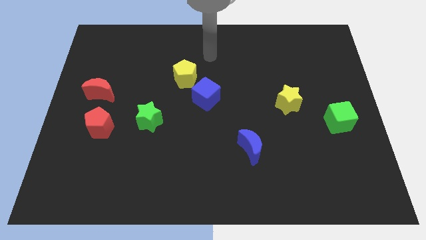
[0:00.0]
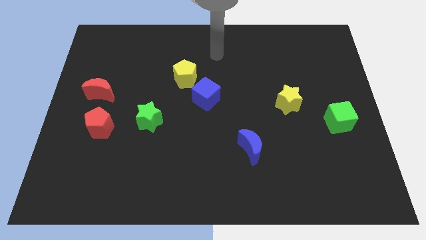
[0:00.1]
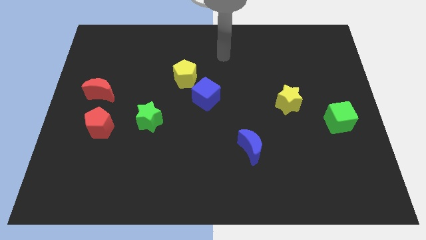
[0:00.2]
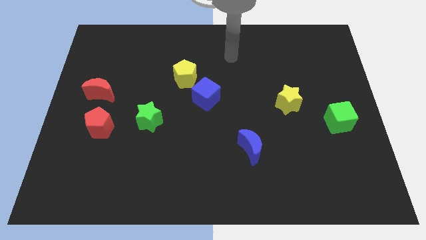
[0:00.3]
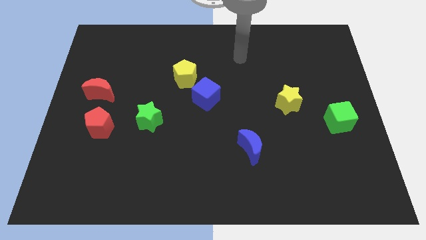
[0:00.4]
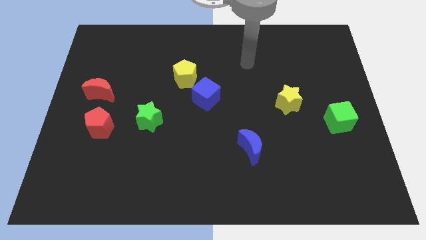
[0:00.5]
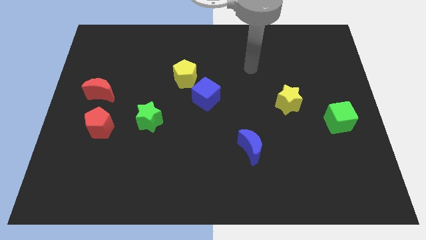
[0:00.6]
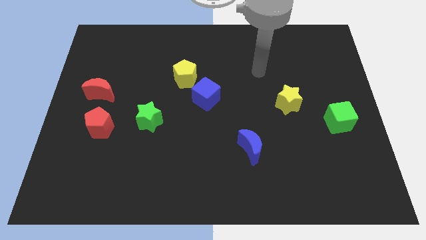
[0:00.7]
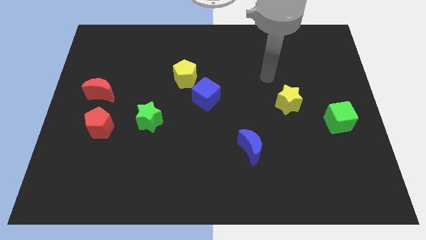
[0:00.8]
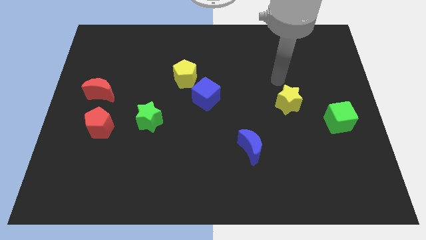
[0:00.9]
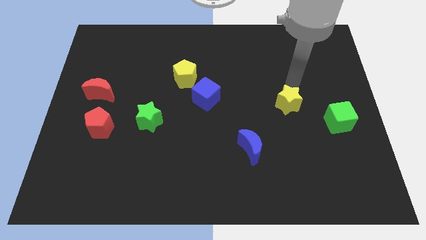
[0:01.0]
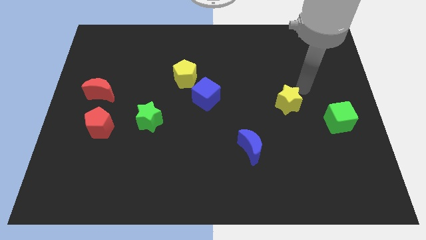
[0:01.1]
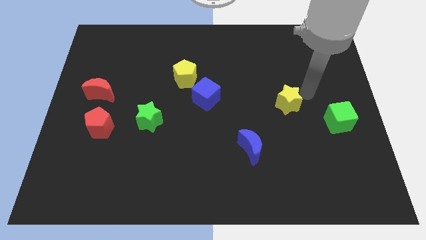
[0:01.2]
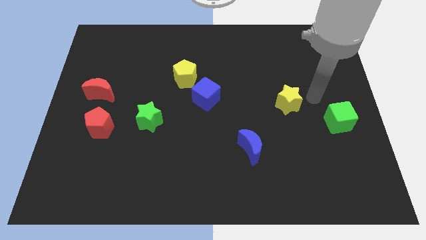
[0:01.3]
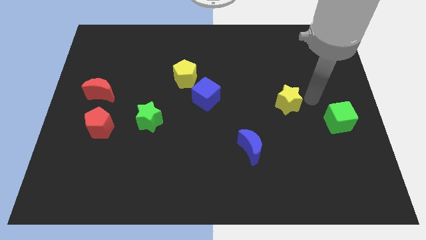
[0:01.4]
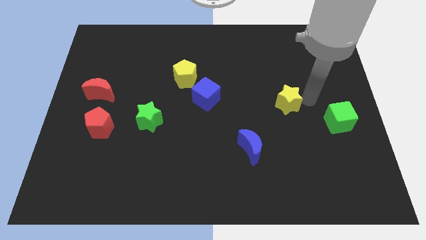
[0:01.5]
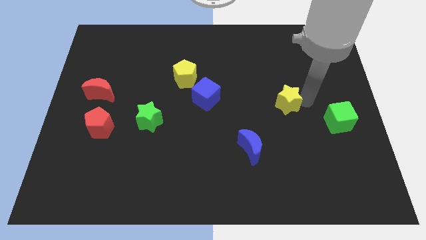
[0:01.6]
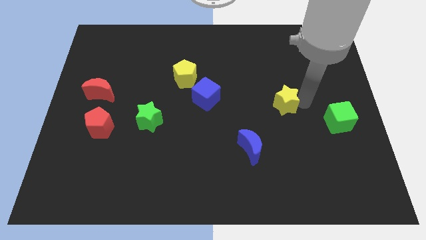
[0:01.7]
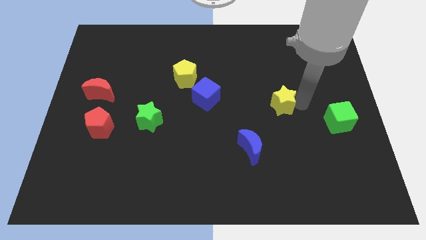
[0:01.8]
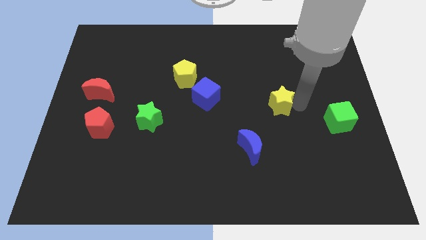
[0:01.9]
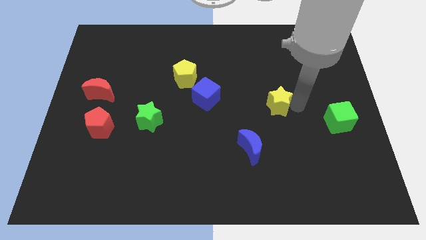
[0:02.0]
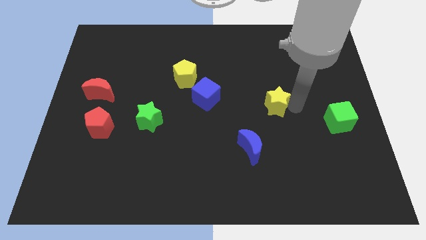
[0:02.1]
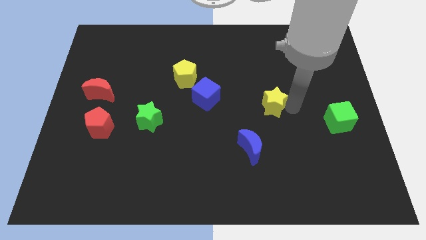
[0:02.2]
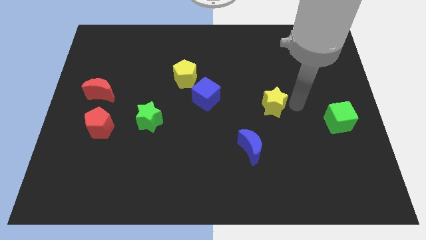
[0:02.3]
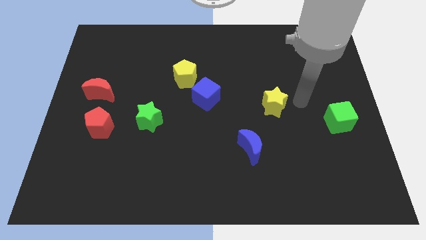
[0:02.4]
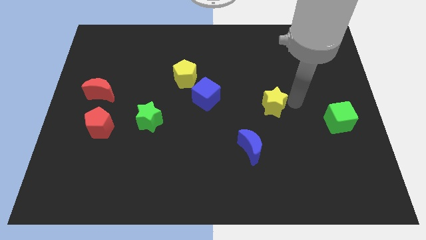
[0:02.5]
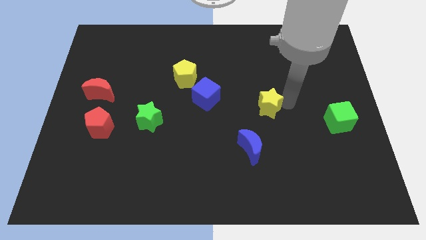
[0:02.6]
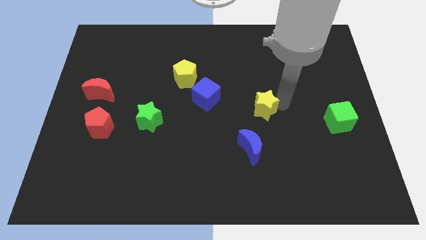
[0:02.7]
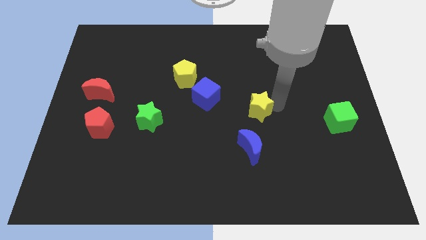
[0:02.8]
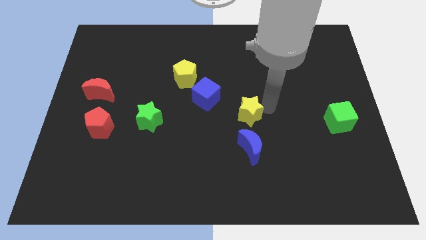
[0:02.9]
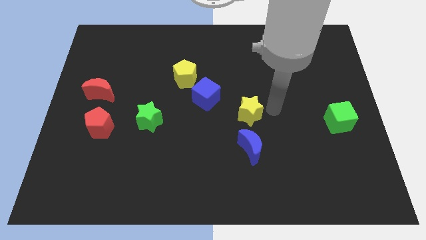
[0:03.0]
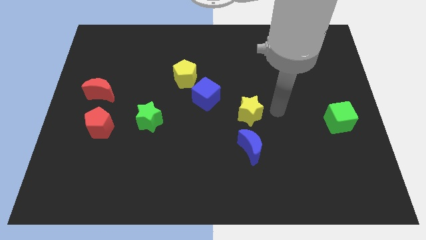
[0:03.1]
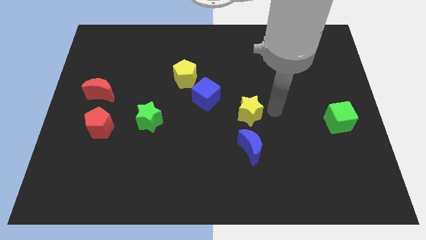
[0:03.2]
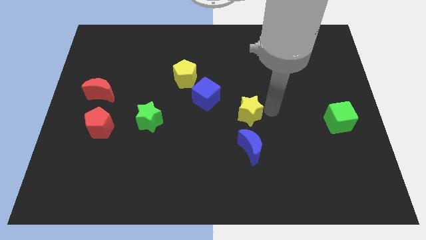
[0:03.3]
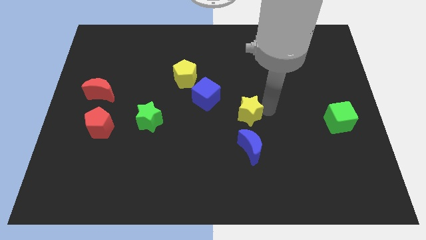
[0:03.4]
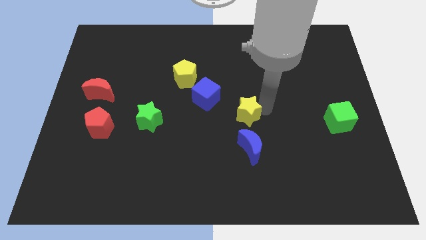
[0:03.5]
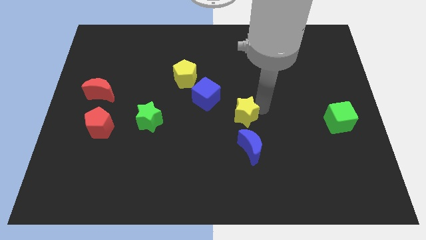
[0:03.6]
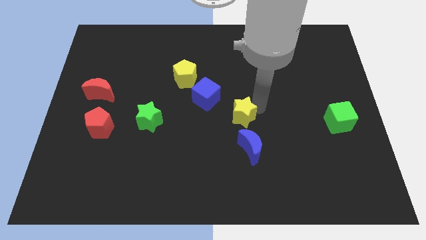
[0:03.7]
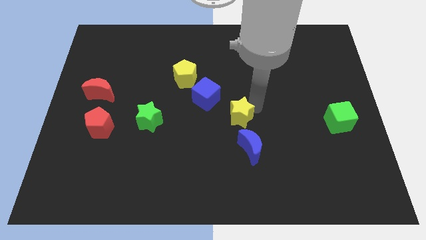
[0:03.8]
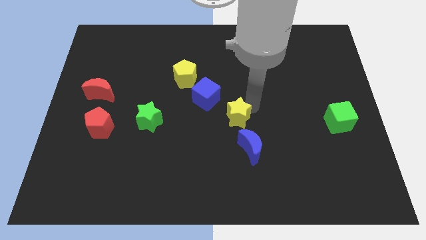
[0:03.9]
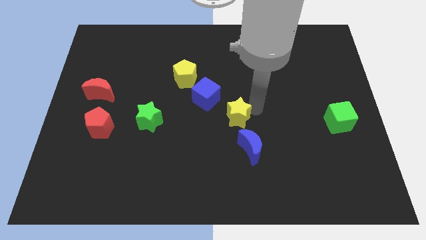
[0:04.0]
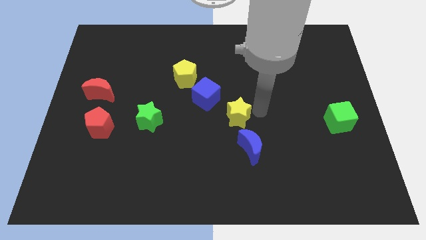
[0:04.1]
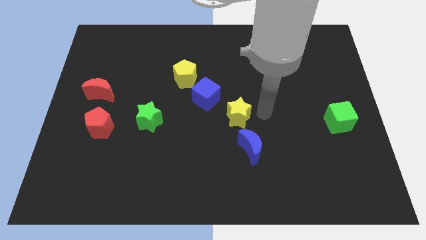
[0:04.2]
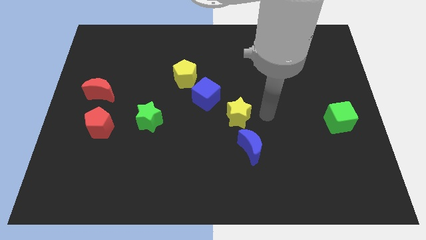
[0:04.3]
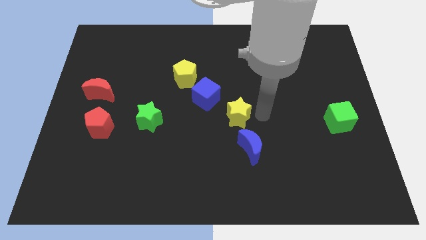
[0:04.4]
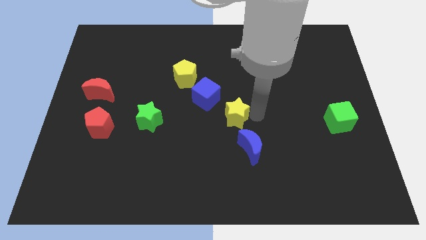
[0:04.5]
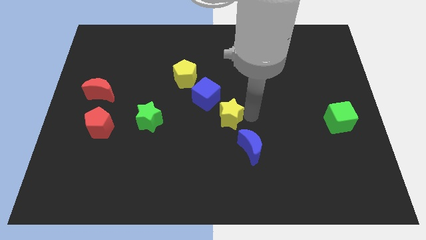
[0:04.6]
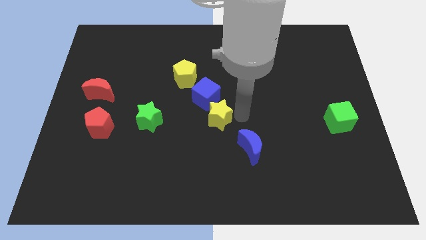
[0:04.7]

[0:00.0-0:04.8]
slide the yellow star right of the green star

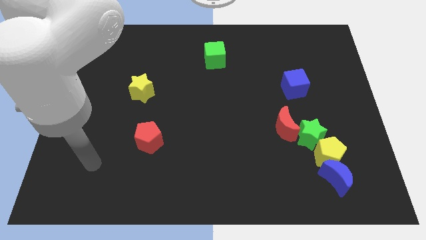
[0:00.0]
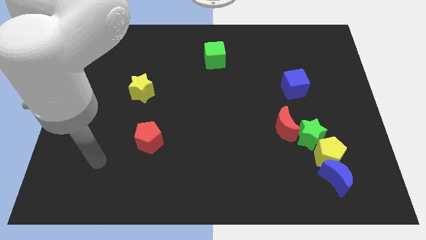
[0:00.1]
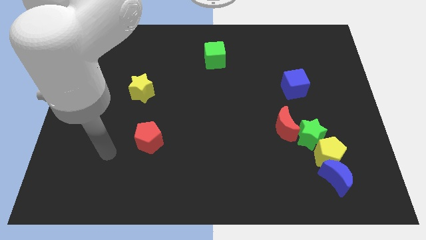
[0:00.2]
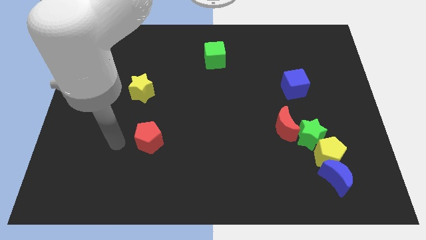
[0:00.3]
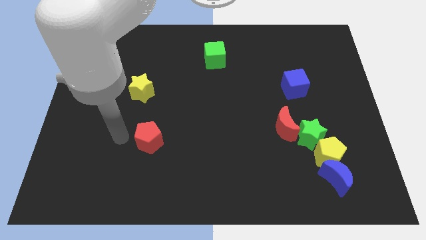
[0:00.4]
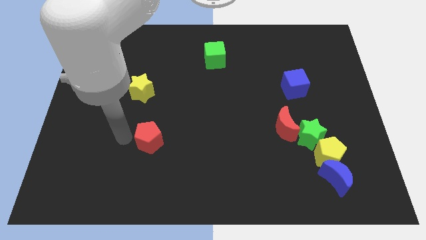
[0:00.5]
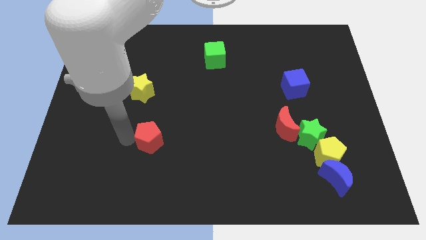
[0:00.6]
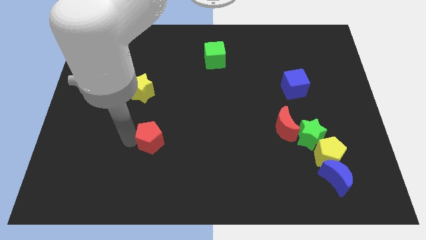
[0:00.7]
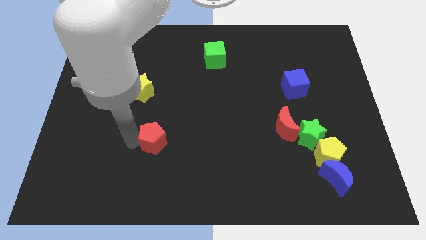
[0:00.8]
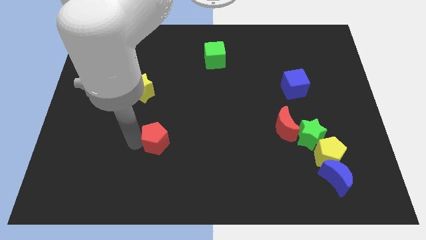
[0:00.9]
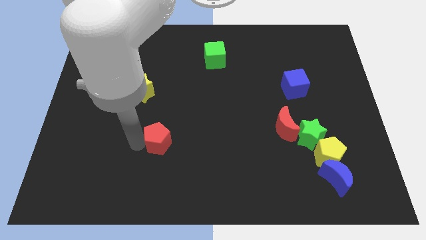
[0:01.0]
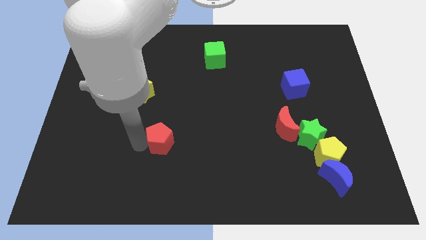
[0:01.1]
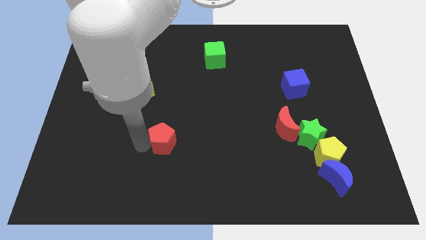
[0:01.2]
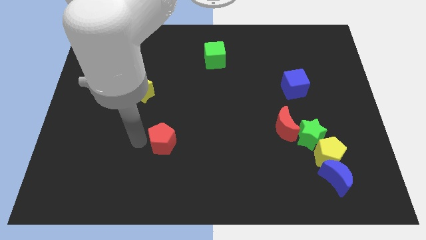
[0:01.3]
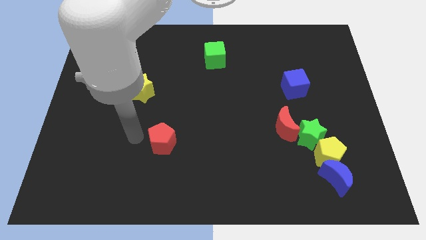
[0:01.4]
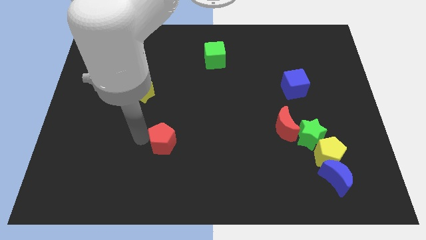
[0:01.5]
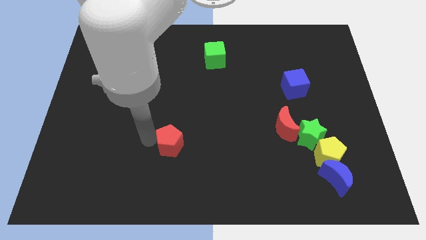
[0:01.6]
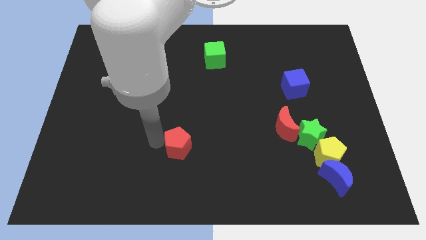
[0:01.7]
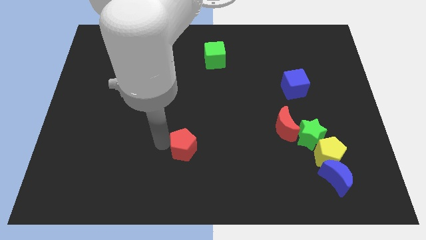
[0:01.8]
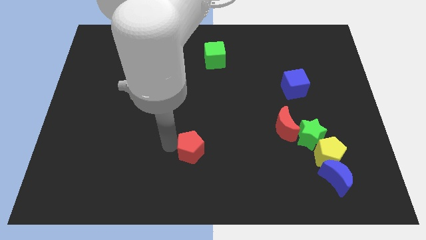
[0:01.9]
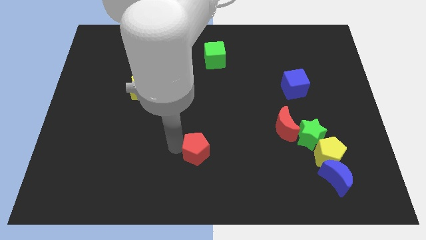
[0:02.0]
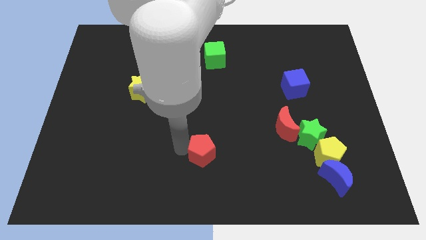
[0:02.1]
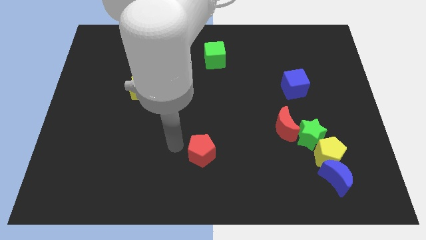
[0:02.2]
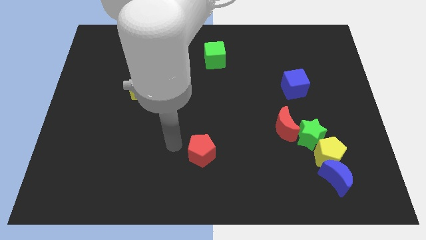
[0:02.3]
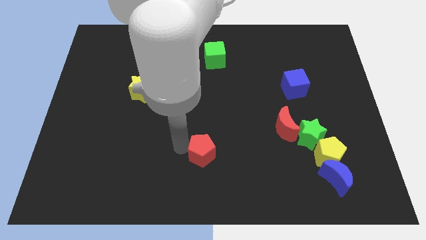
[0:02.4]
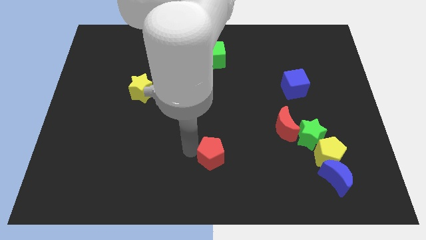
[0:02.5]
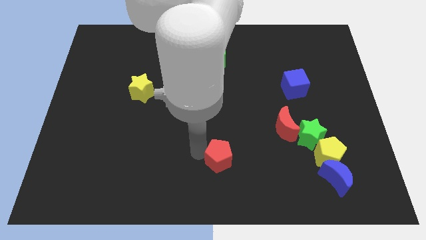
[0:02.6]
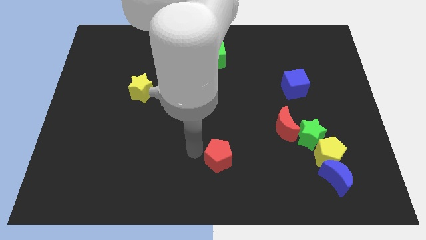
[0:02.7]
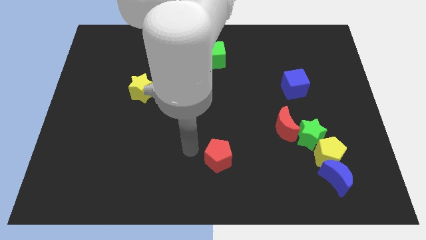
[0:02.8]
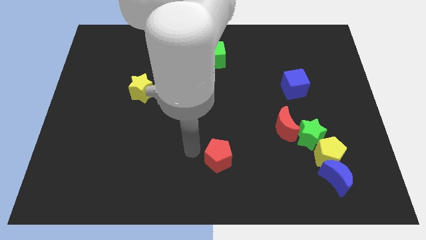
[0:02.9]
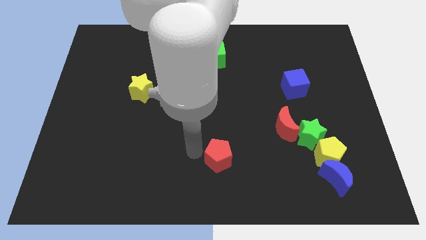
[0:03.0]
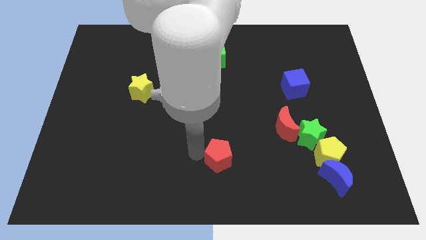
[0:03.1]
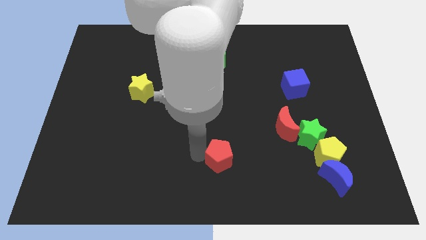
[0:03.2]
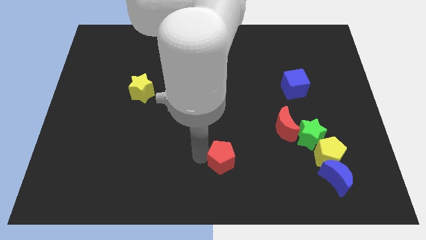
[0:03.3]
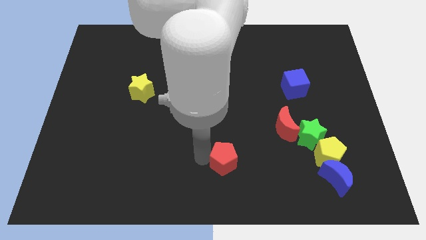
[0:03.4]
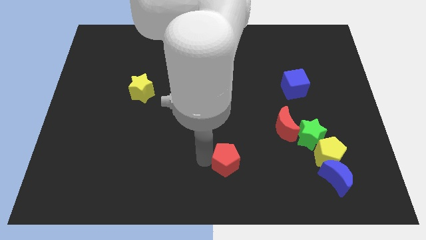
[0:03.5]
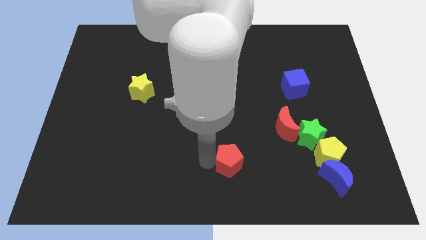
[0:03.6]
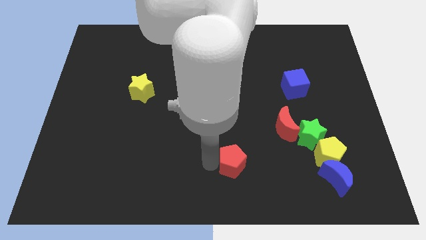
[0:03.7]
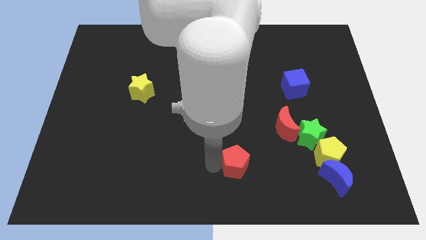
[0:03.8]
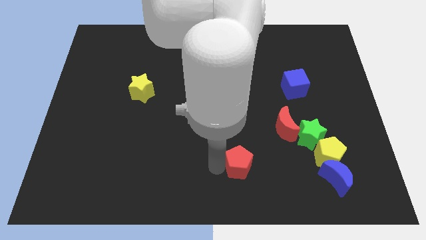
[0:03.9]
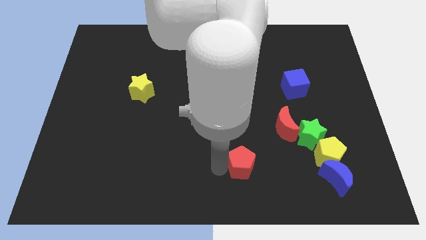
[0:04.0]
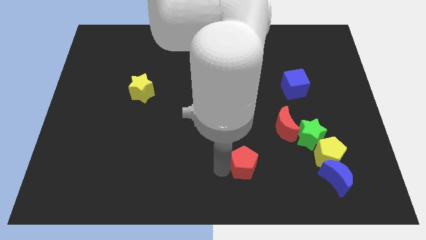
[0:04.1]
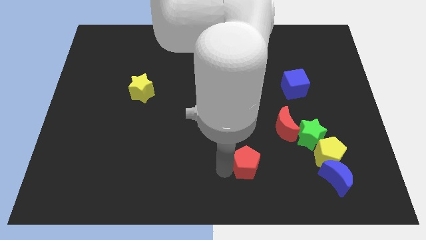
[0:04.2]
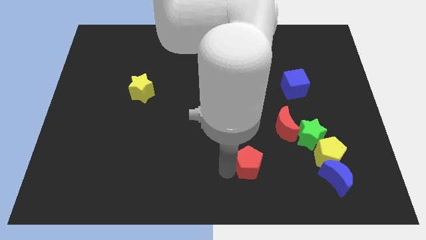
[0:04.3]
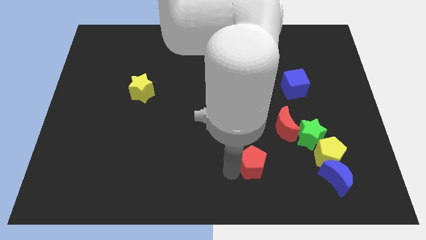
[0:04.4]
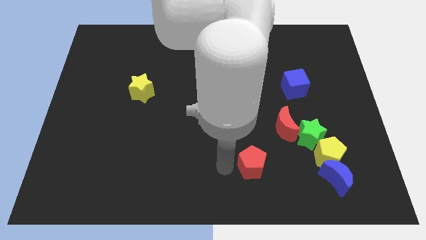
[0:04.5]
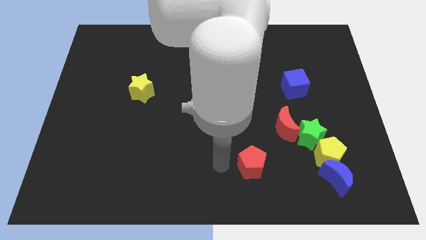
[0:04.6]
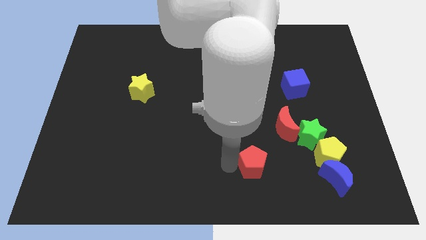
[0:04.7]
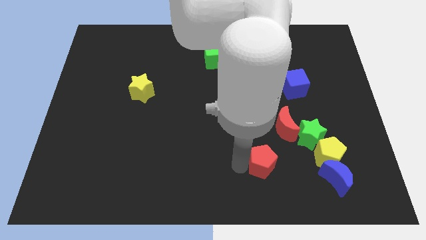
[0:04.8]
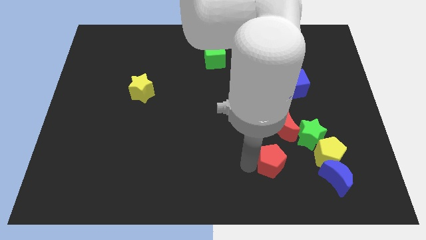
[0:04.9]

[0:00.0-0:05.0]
move the red pentagon to the bottom of the red moon
